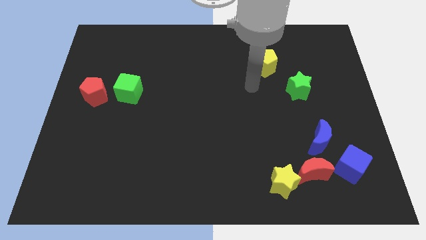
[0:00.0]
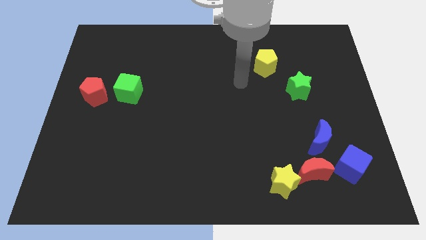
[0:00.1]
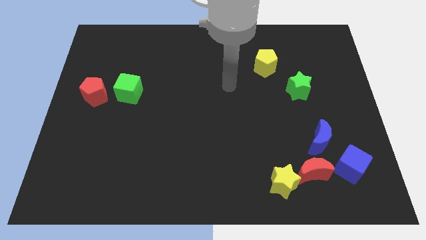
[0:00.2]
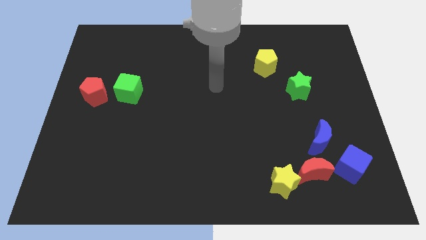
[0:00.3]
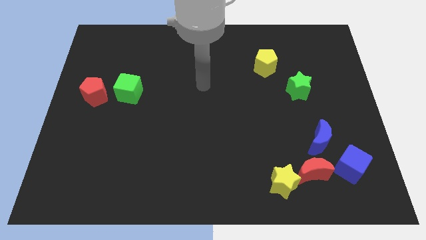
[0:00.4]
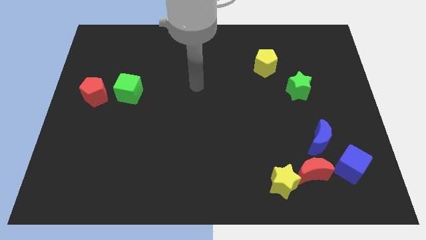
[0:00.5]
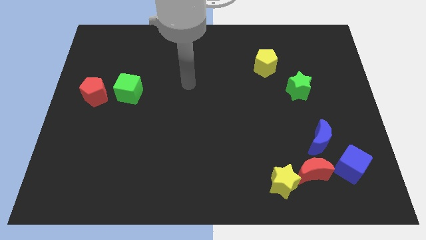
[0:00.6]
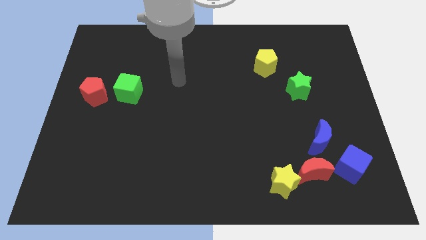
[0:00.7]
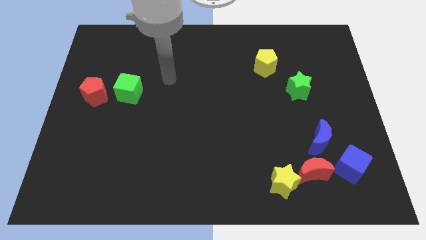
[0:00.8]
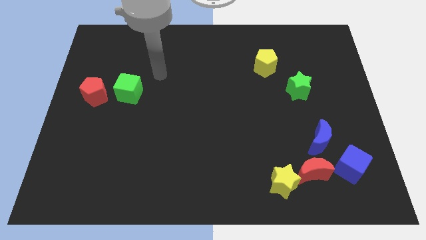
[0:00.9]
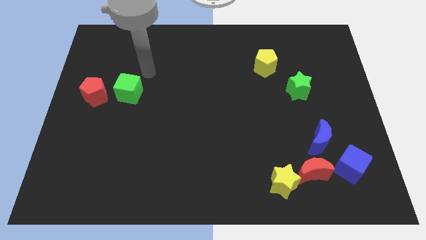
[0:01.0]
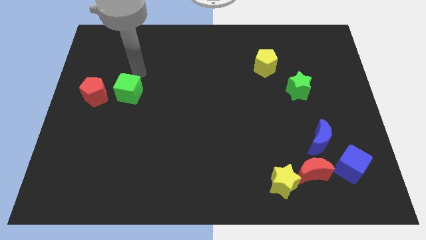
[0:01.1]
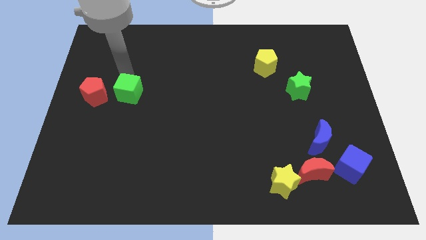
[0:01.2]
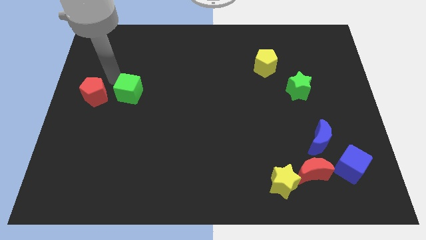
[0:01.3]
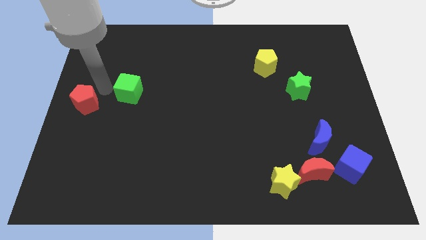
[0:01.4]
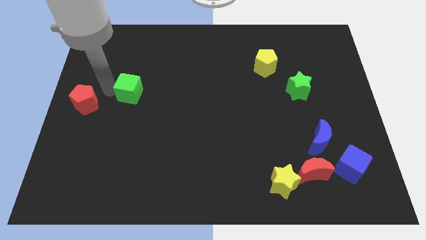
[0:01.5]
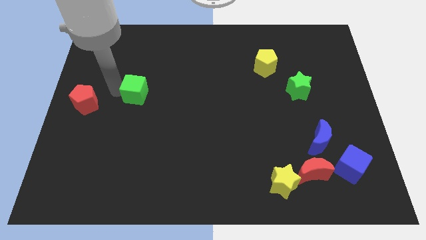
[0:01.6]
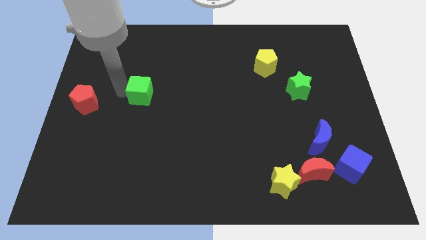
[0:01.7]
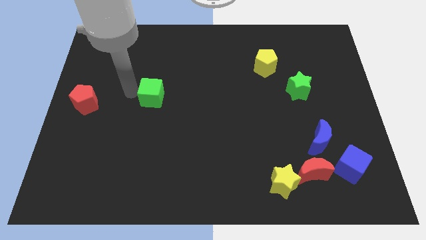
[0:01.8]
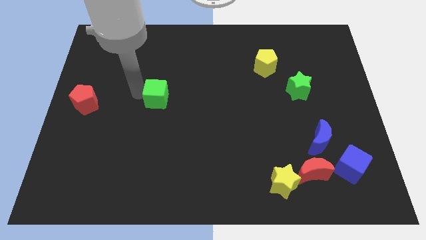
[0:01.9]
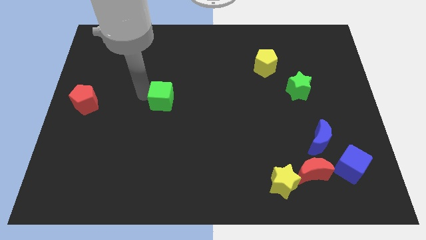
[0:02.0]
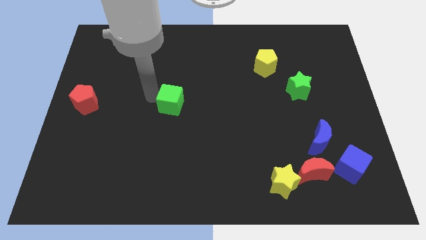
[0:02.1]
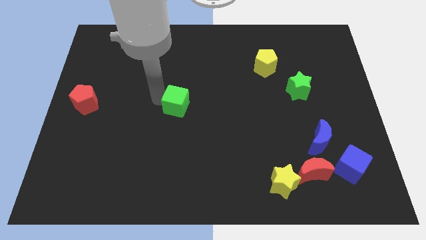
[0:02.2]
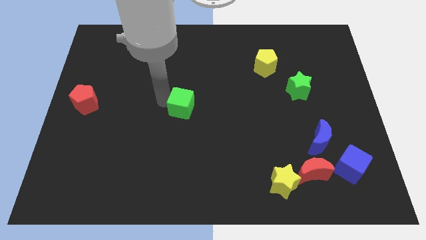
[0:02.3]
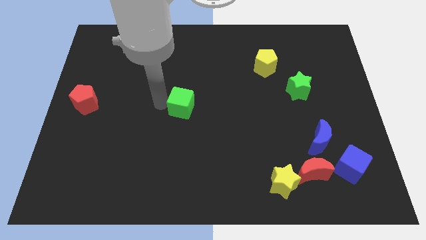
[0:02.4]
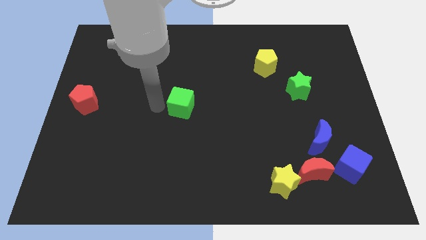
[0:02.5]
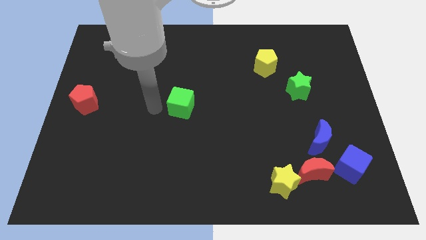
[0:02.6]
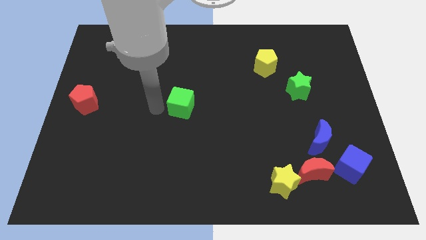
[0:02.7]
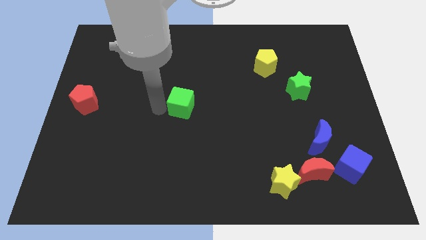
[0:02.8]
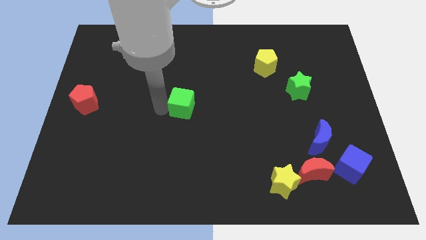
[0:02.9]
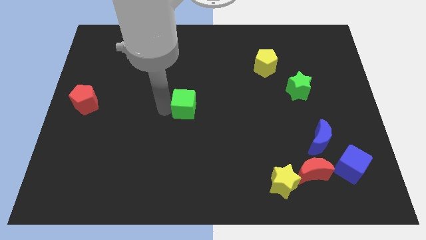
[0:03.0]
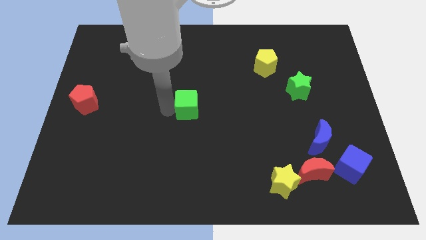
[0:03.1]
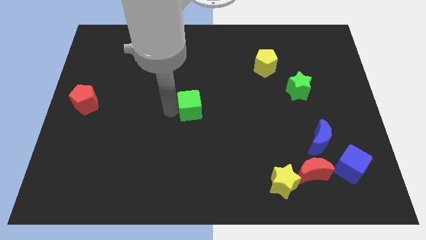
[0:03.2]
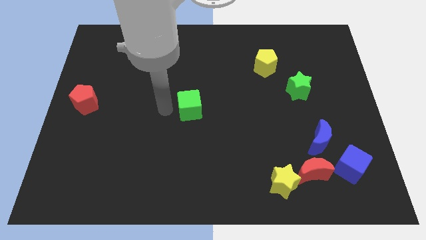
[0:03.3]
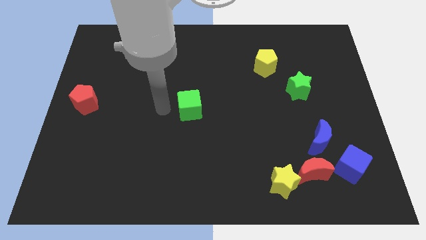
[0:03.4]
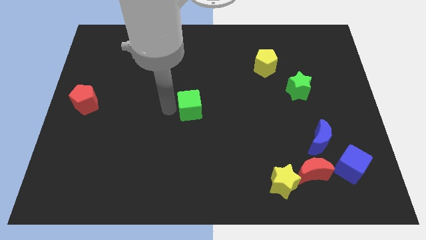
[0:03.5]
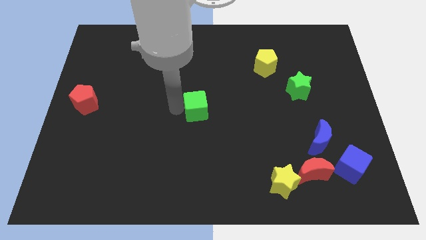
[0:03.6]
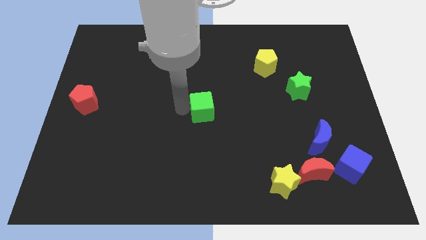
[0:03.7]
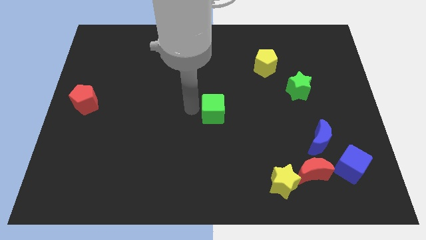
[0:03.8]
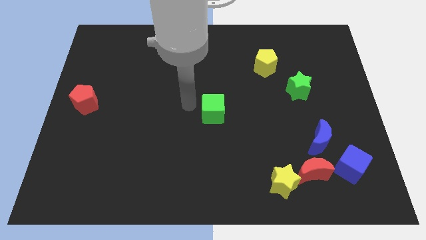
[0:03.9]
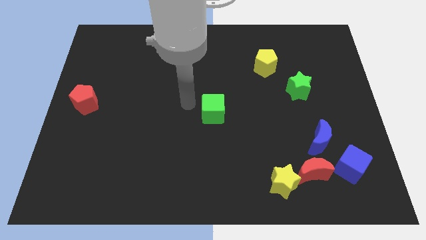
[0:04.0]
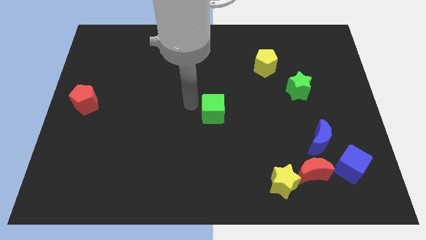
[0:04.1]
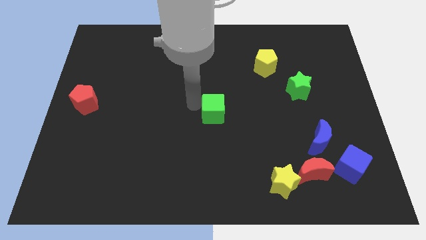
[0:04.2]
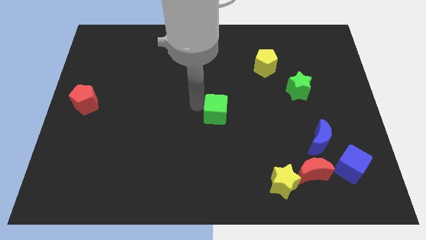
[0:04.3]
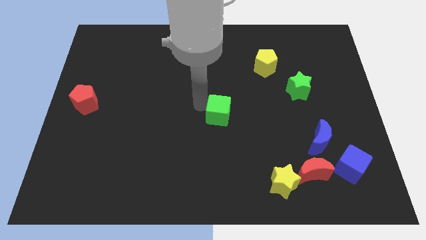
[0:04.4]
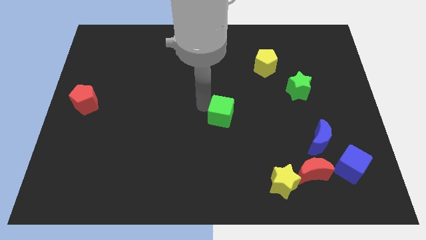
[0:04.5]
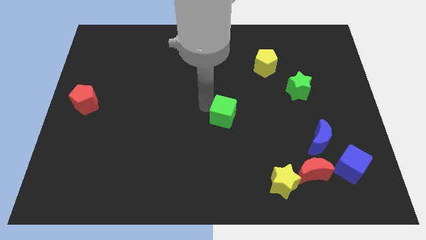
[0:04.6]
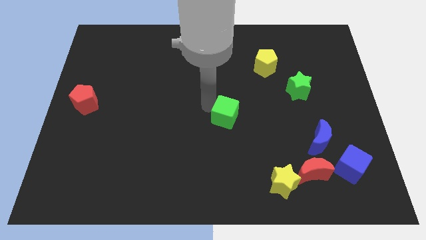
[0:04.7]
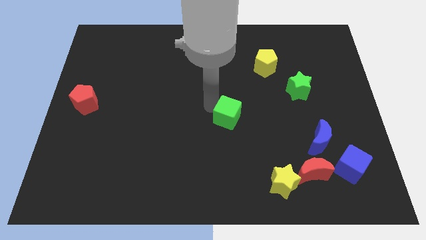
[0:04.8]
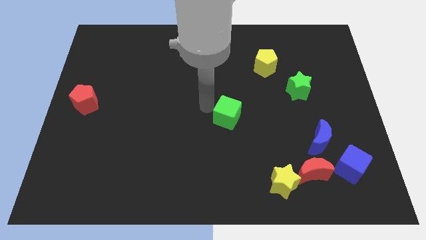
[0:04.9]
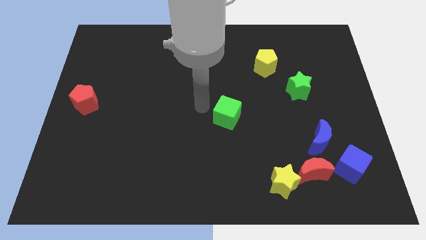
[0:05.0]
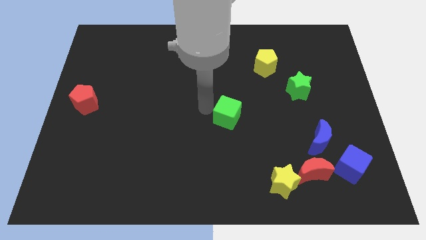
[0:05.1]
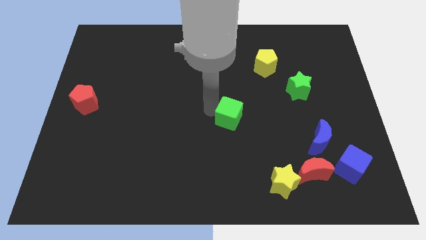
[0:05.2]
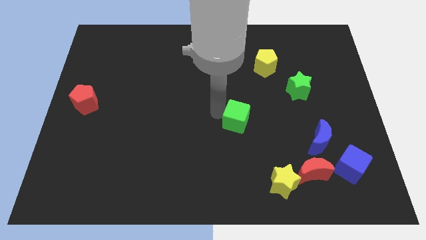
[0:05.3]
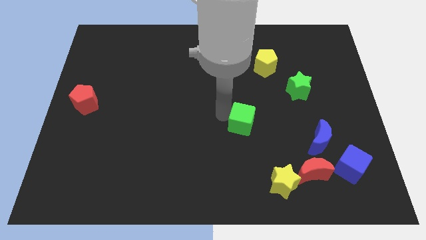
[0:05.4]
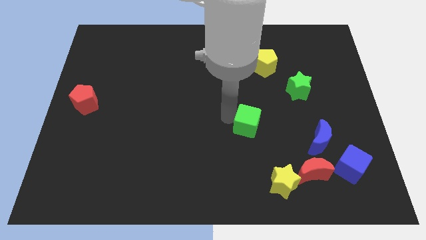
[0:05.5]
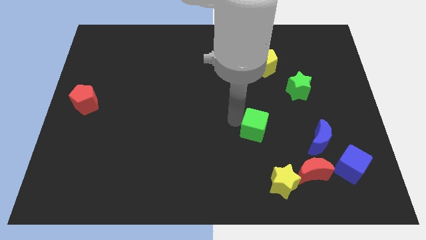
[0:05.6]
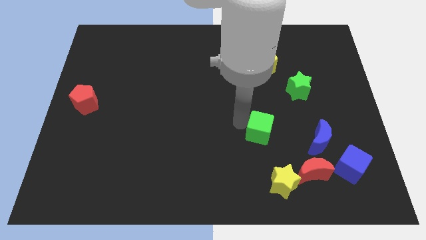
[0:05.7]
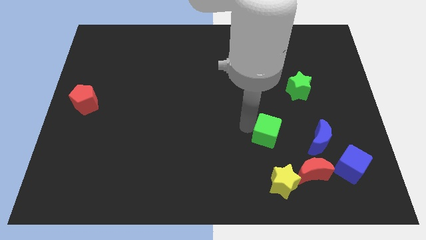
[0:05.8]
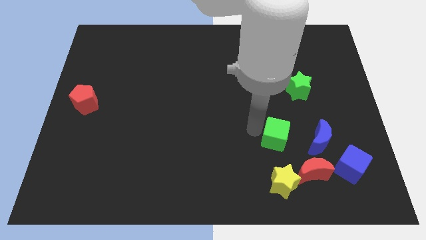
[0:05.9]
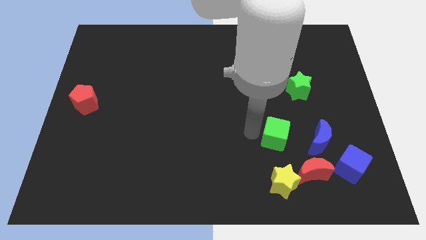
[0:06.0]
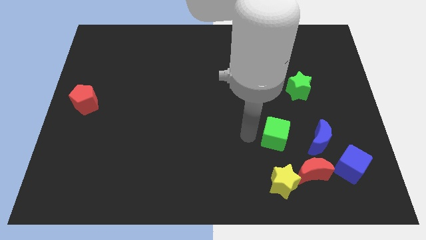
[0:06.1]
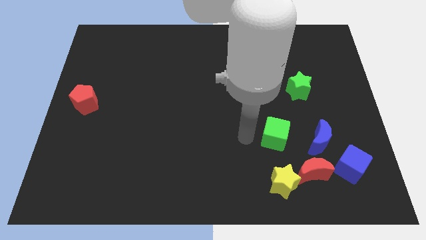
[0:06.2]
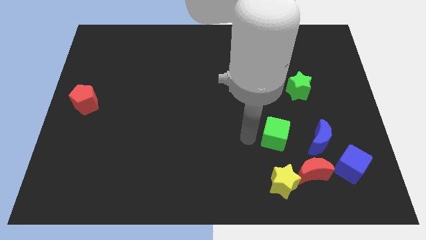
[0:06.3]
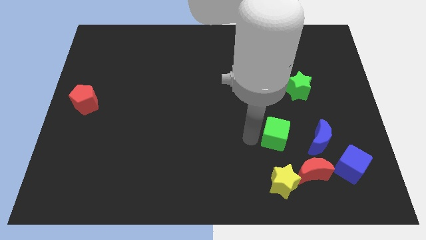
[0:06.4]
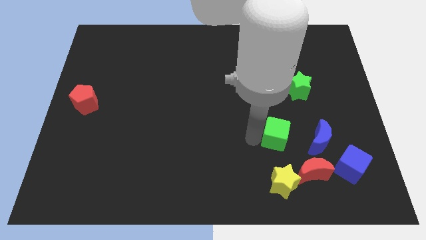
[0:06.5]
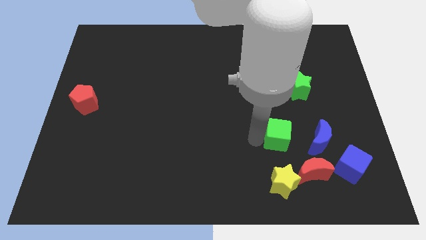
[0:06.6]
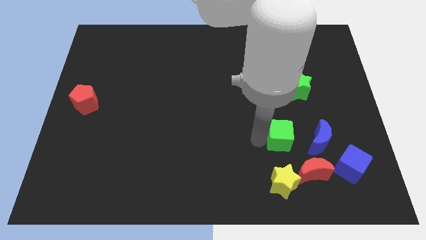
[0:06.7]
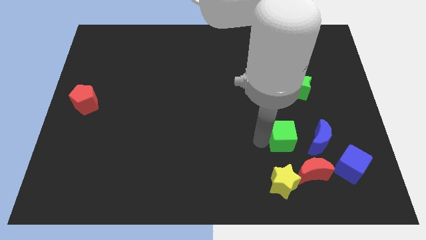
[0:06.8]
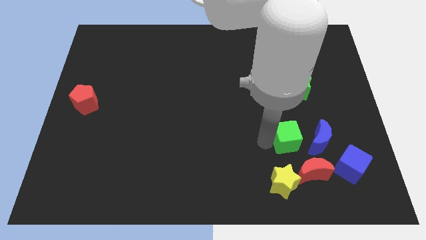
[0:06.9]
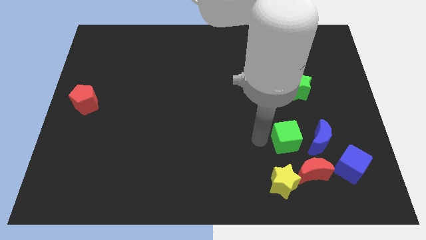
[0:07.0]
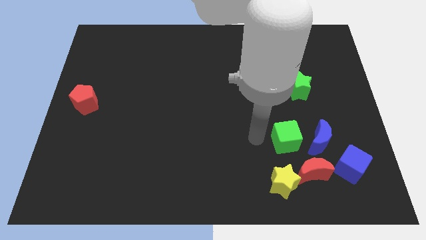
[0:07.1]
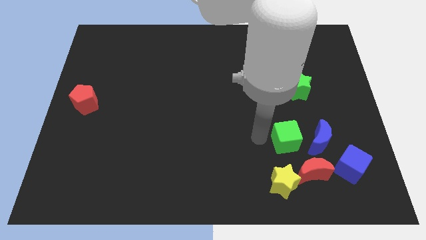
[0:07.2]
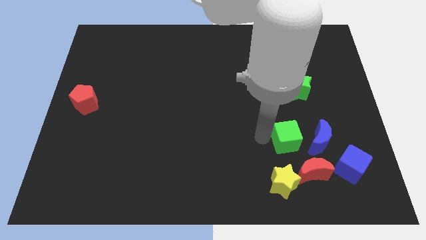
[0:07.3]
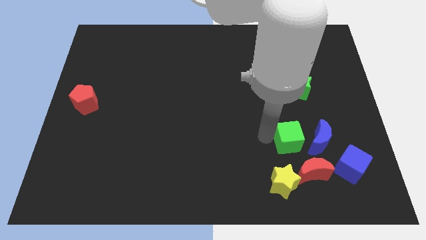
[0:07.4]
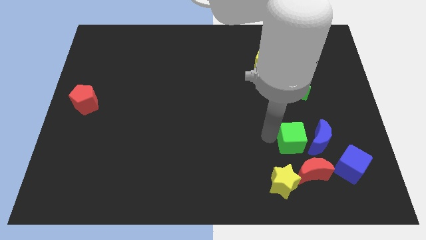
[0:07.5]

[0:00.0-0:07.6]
put the green cube towards the blue moon

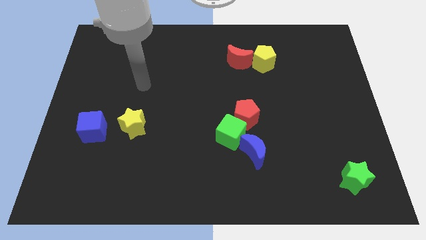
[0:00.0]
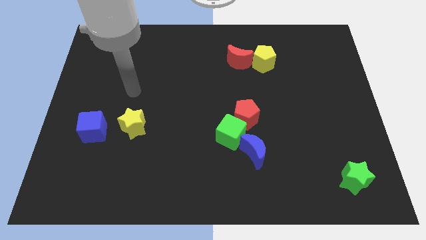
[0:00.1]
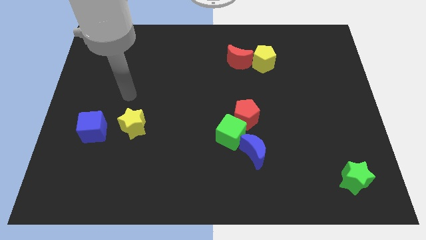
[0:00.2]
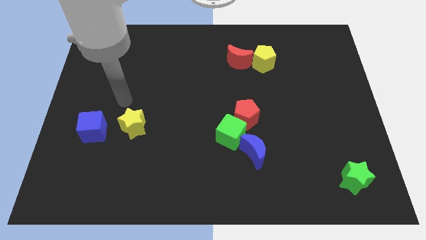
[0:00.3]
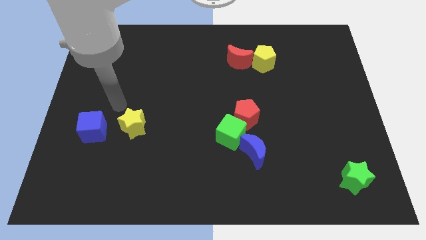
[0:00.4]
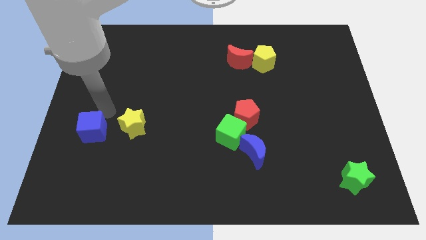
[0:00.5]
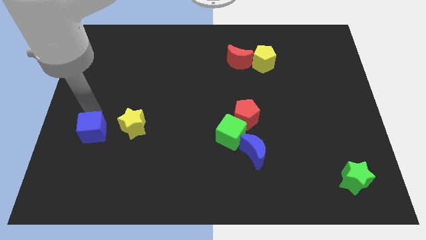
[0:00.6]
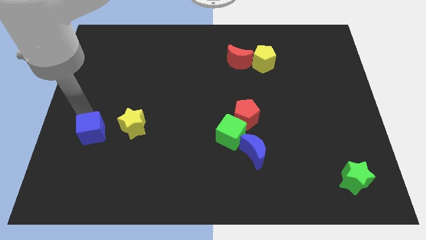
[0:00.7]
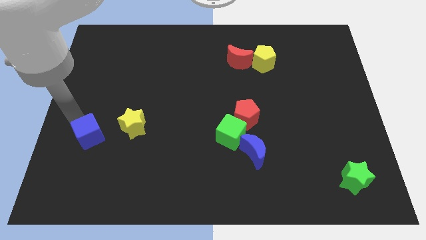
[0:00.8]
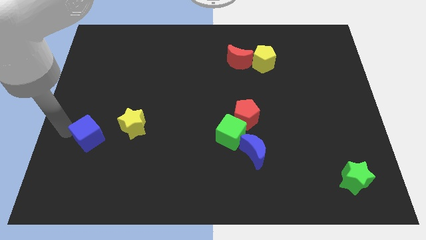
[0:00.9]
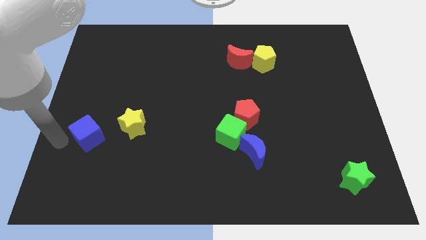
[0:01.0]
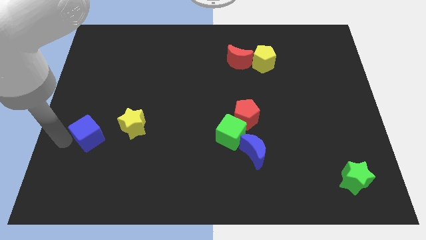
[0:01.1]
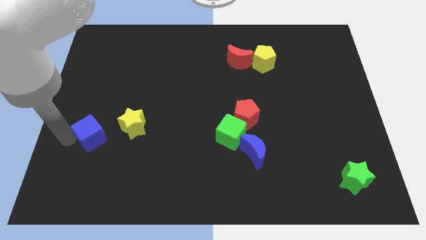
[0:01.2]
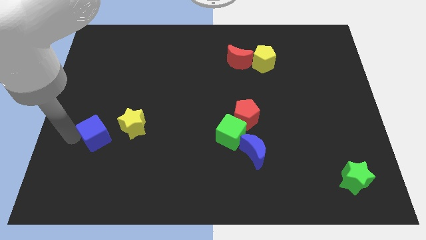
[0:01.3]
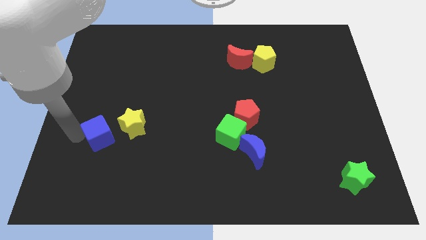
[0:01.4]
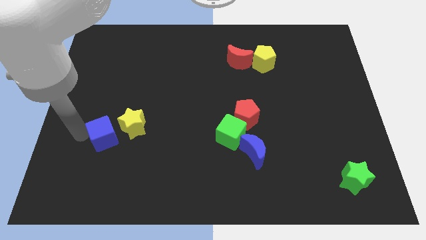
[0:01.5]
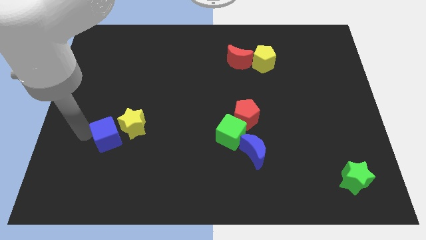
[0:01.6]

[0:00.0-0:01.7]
push the blue cube next to the yellow star
